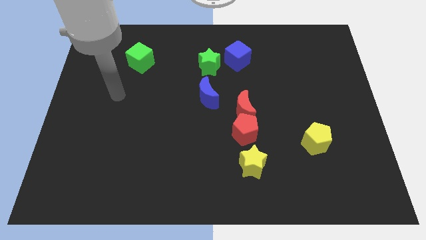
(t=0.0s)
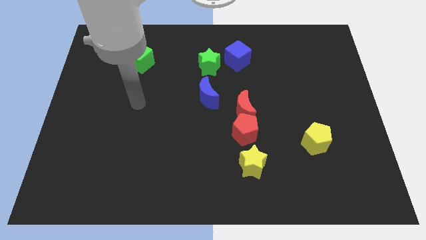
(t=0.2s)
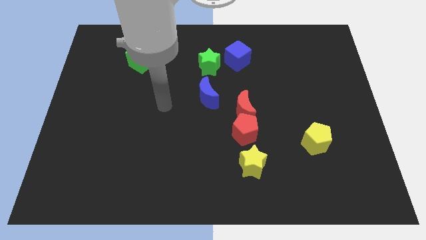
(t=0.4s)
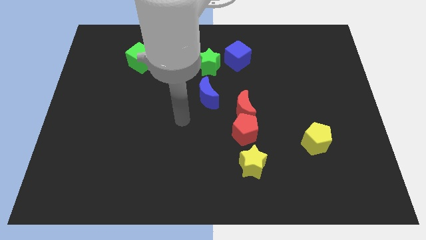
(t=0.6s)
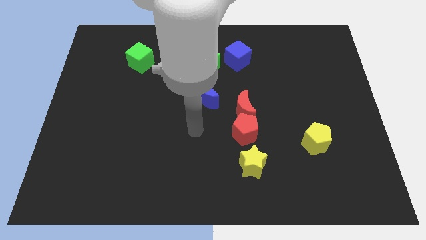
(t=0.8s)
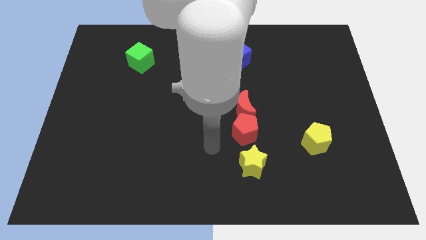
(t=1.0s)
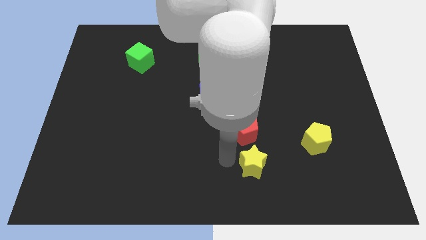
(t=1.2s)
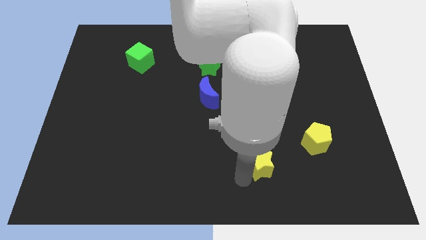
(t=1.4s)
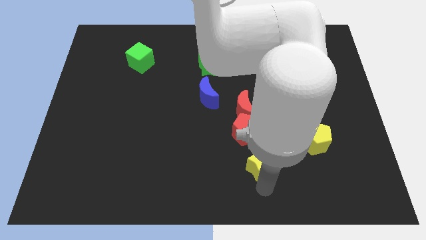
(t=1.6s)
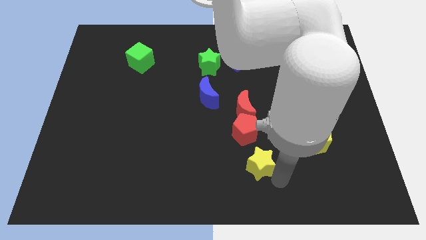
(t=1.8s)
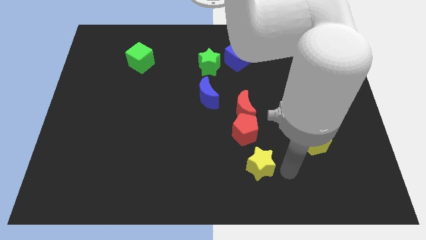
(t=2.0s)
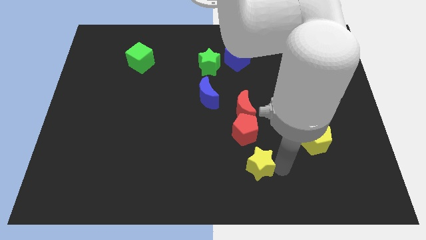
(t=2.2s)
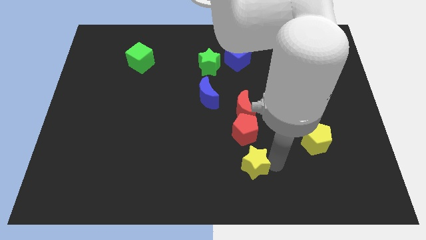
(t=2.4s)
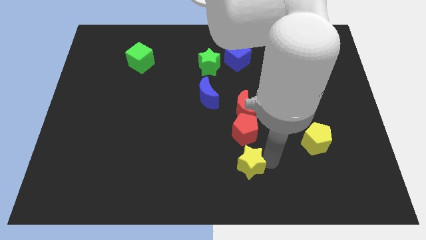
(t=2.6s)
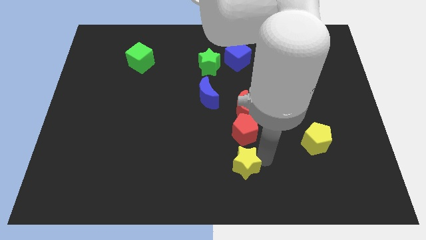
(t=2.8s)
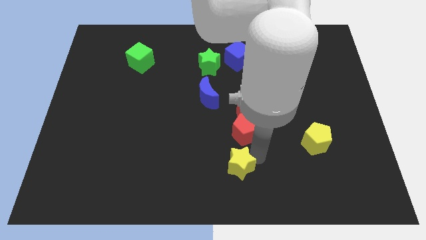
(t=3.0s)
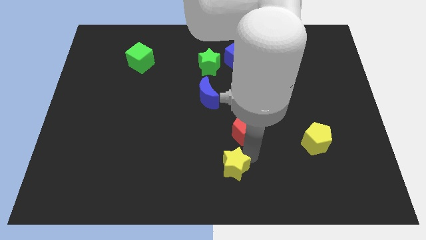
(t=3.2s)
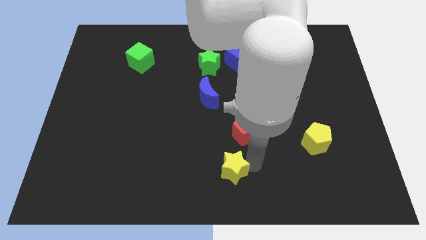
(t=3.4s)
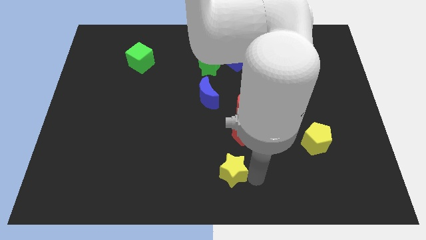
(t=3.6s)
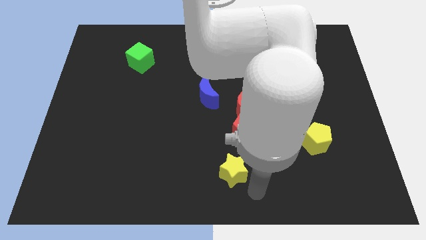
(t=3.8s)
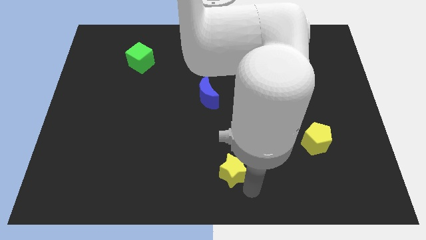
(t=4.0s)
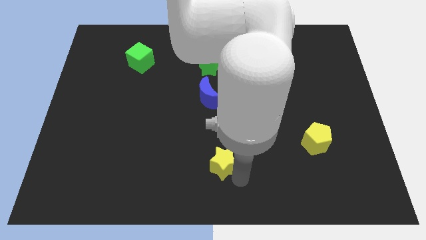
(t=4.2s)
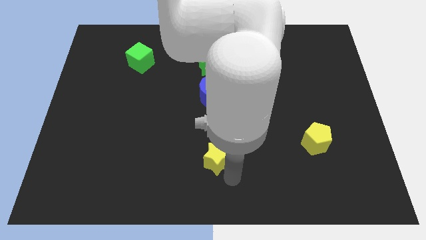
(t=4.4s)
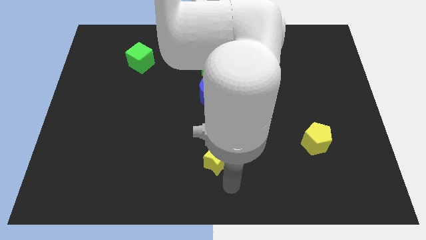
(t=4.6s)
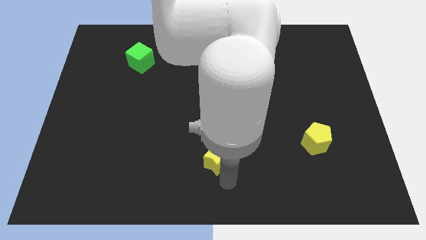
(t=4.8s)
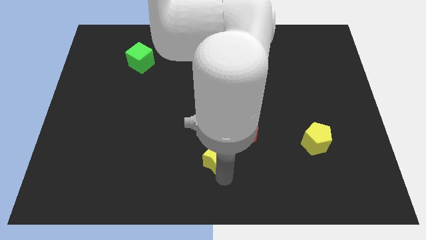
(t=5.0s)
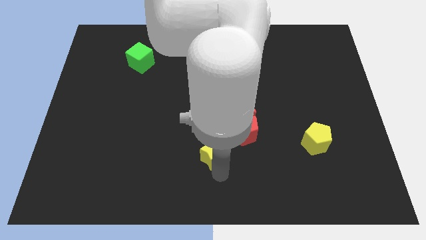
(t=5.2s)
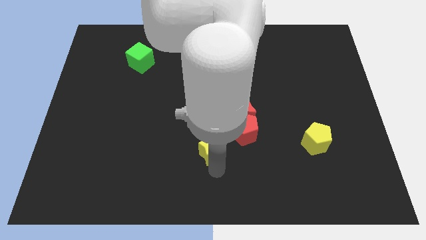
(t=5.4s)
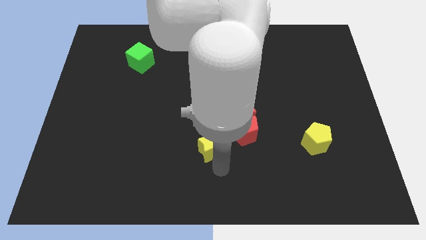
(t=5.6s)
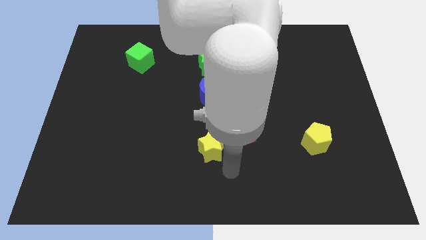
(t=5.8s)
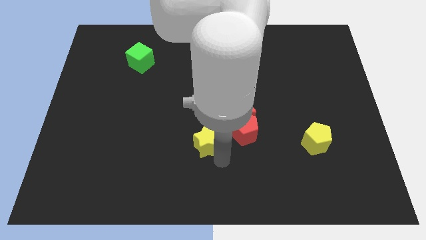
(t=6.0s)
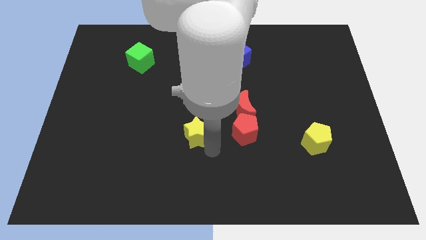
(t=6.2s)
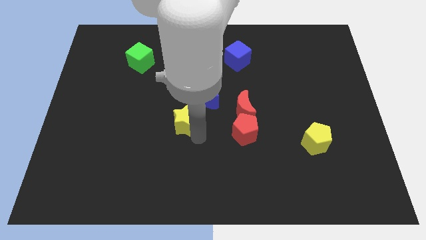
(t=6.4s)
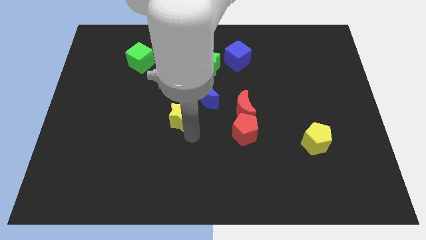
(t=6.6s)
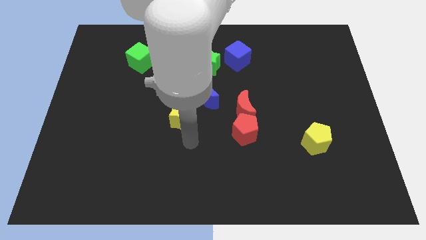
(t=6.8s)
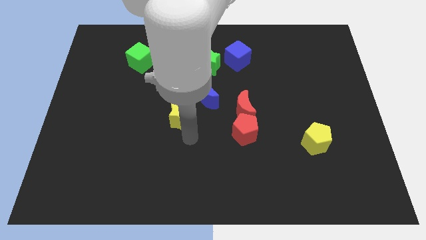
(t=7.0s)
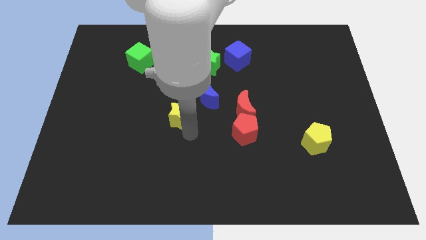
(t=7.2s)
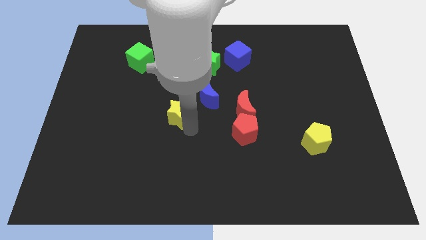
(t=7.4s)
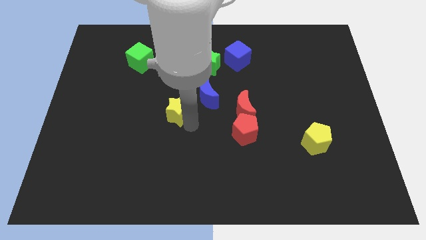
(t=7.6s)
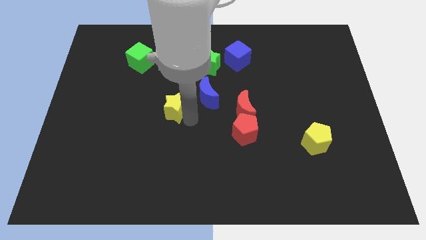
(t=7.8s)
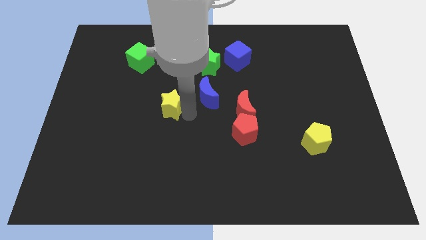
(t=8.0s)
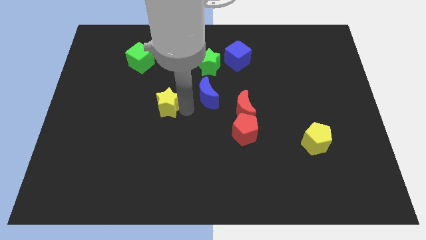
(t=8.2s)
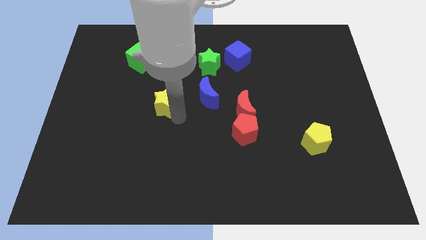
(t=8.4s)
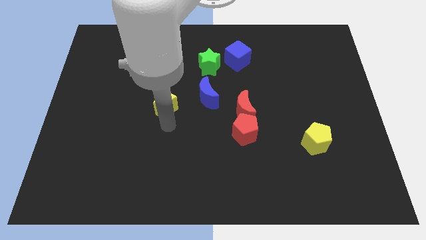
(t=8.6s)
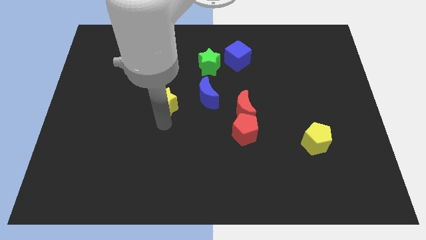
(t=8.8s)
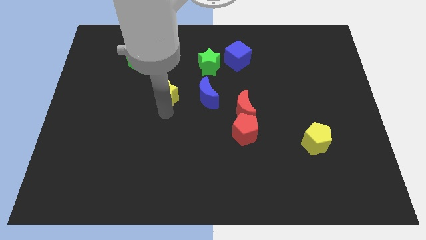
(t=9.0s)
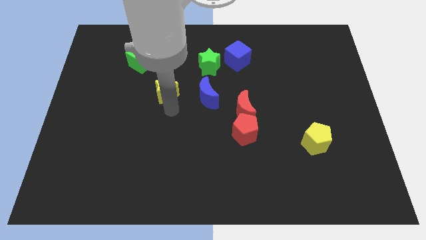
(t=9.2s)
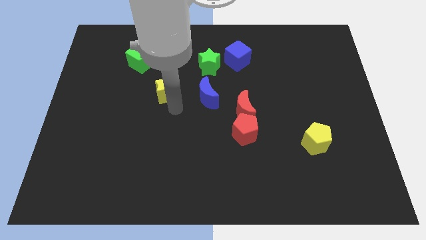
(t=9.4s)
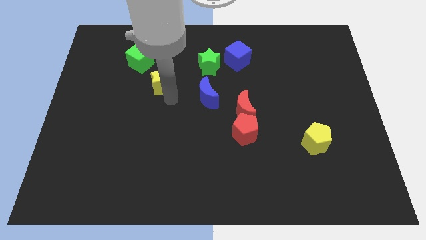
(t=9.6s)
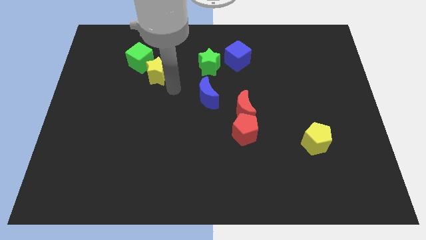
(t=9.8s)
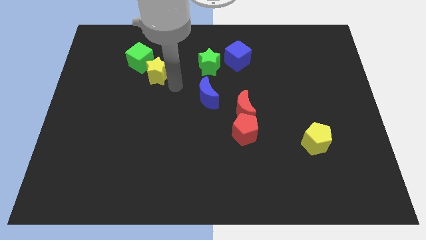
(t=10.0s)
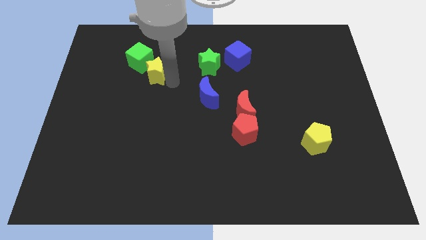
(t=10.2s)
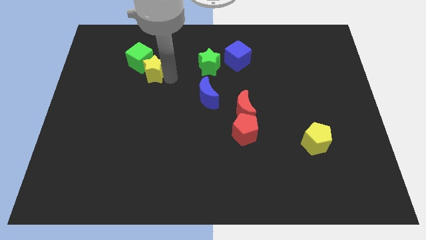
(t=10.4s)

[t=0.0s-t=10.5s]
slide the yellow star to the green cube

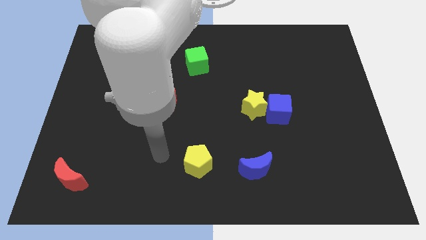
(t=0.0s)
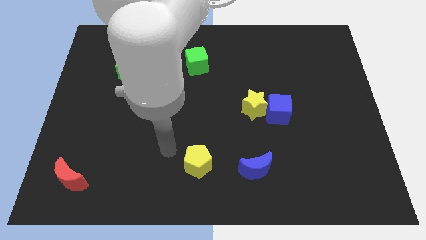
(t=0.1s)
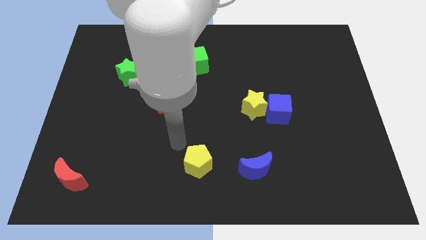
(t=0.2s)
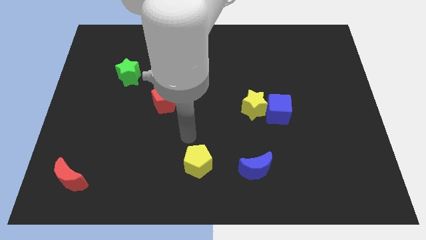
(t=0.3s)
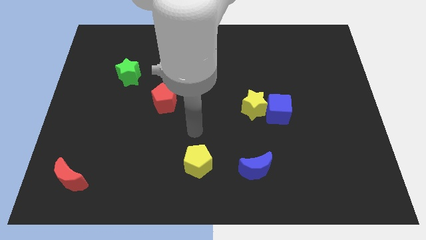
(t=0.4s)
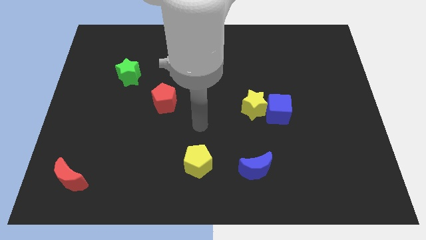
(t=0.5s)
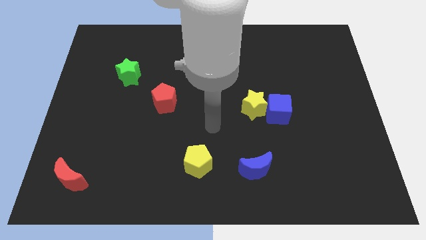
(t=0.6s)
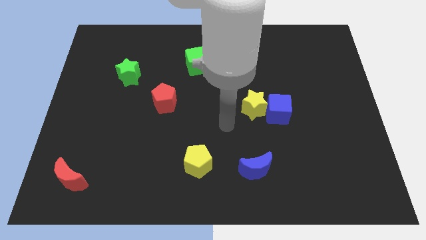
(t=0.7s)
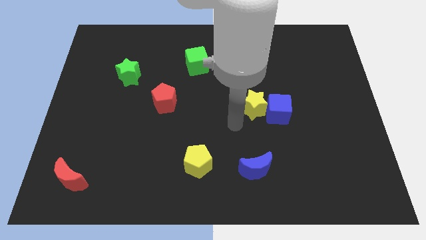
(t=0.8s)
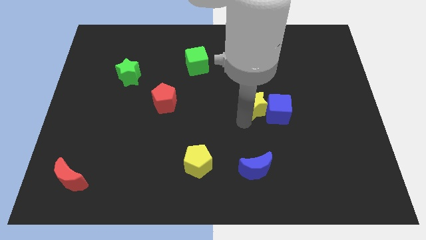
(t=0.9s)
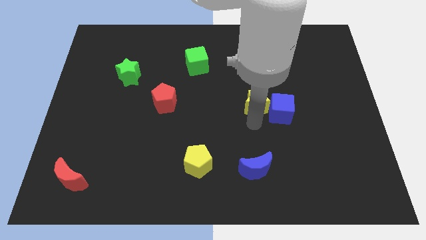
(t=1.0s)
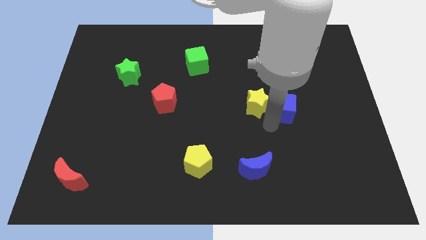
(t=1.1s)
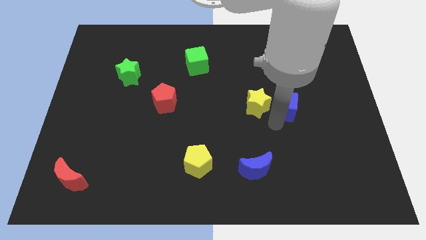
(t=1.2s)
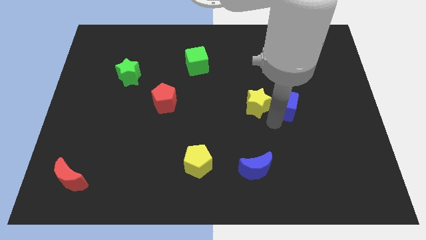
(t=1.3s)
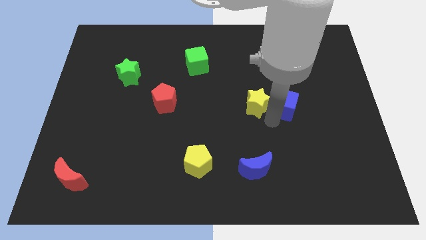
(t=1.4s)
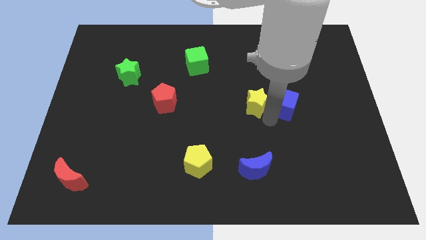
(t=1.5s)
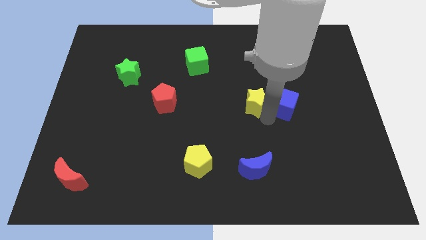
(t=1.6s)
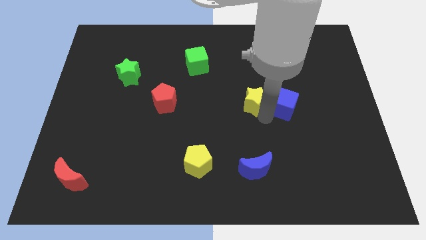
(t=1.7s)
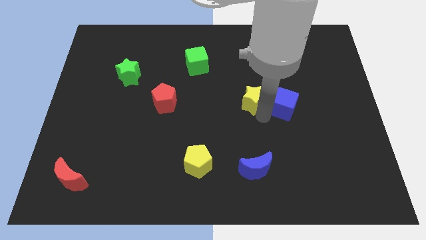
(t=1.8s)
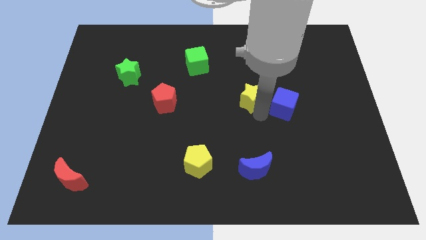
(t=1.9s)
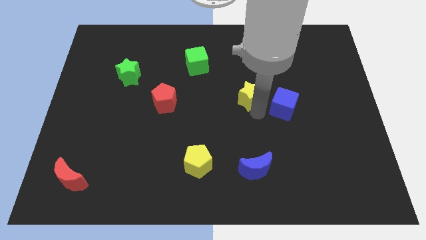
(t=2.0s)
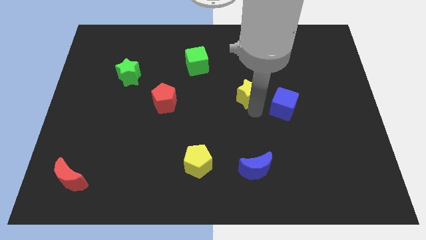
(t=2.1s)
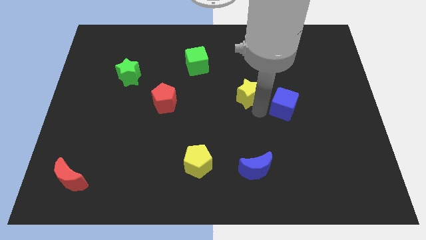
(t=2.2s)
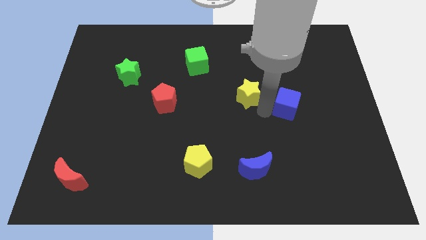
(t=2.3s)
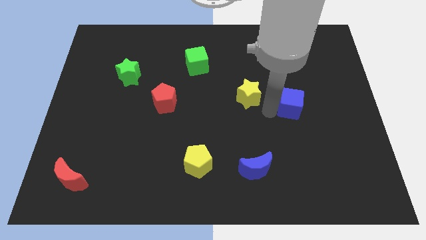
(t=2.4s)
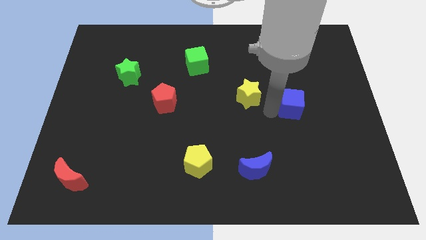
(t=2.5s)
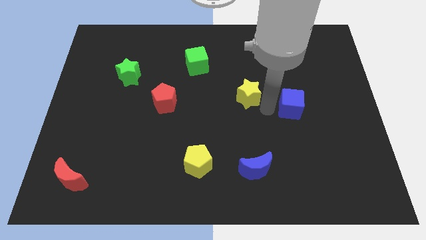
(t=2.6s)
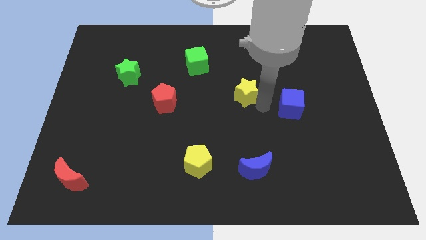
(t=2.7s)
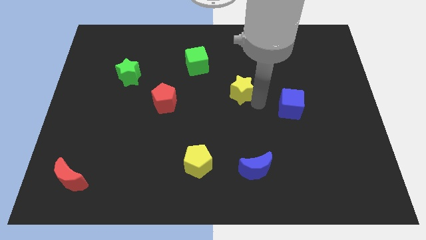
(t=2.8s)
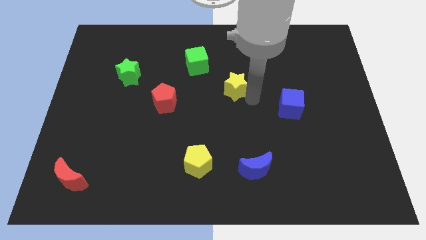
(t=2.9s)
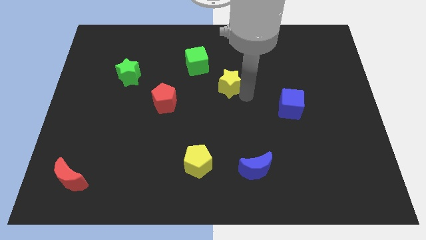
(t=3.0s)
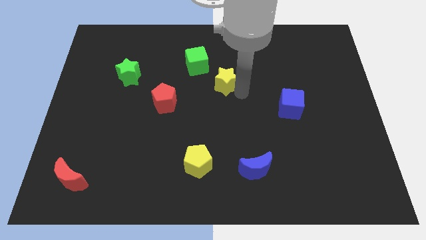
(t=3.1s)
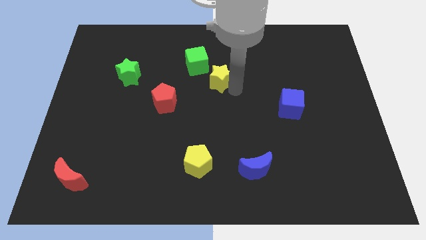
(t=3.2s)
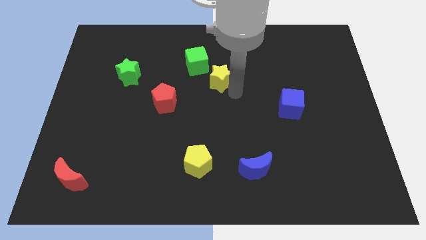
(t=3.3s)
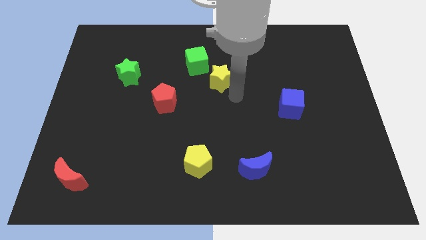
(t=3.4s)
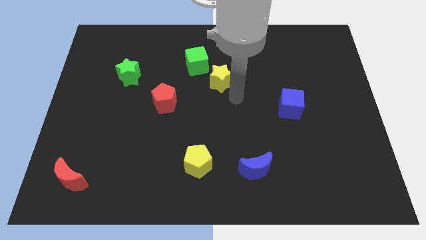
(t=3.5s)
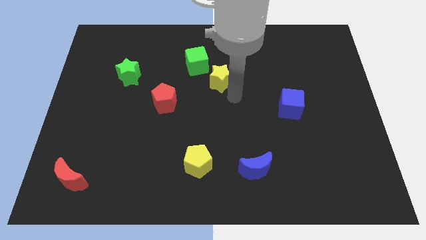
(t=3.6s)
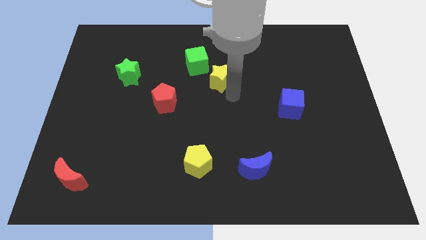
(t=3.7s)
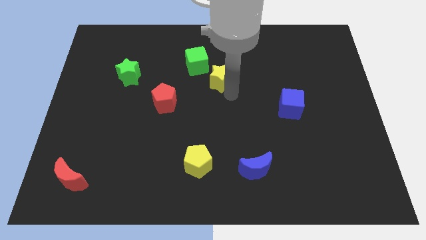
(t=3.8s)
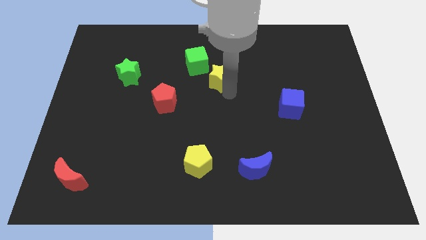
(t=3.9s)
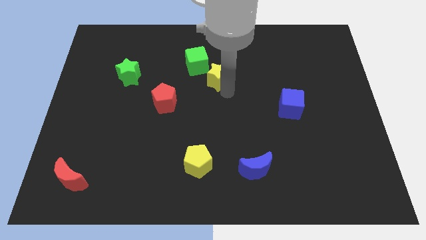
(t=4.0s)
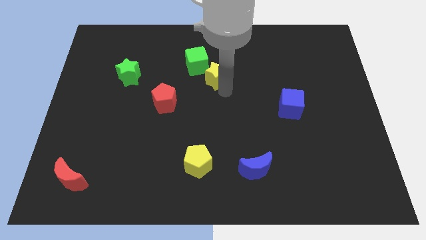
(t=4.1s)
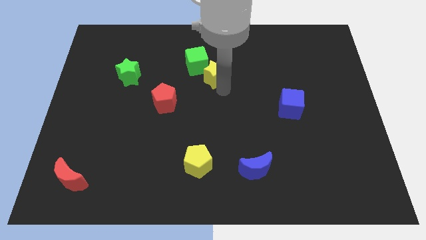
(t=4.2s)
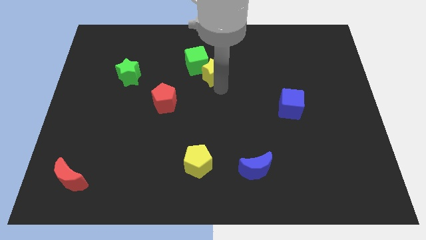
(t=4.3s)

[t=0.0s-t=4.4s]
move the yellow star to the green cube
